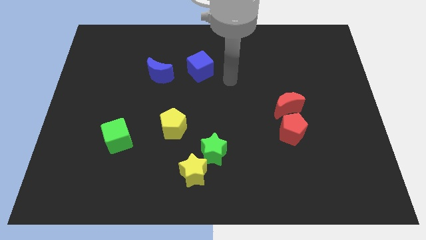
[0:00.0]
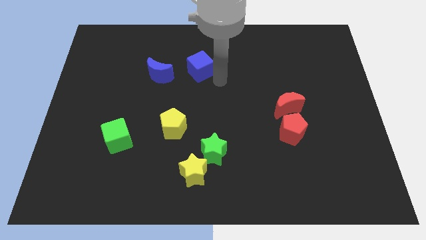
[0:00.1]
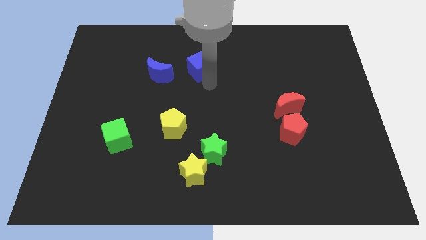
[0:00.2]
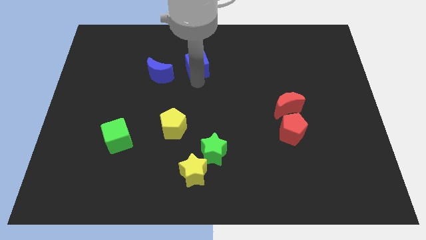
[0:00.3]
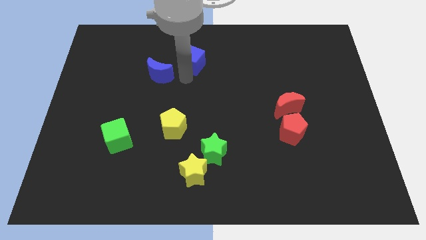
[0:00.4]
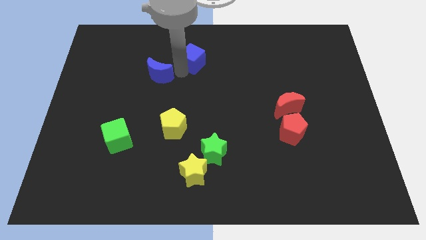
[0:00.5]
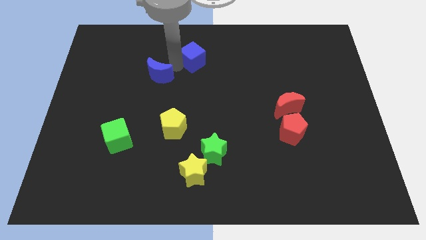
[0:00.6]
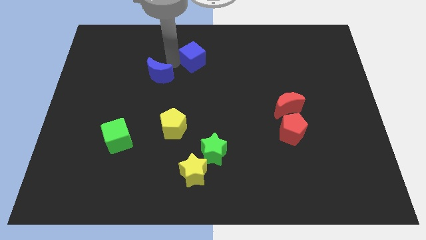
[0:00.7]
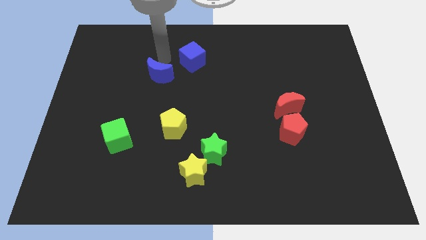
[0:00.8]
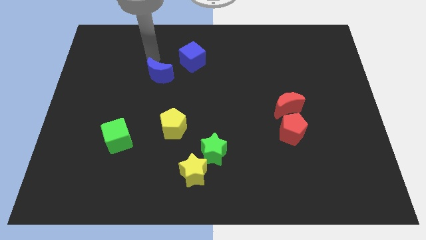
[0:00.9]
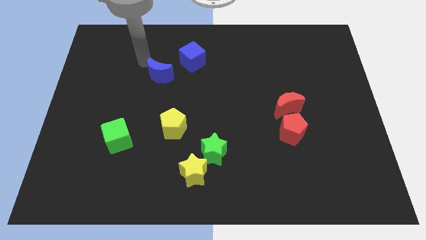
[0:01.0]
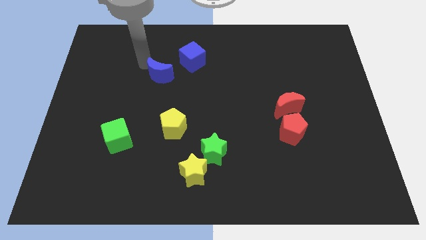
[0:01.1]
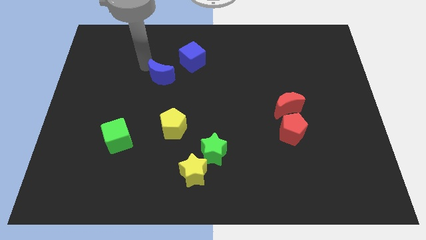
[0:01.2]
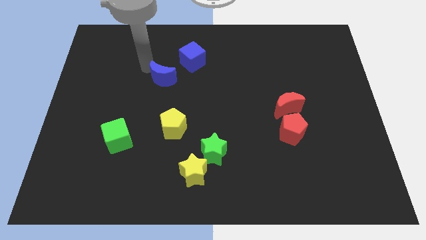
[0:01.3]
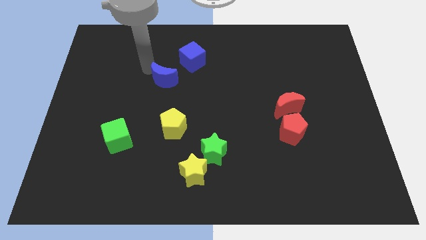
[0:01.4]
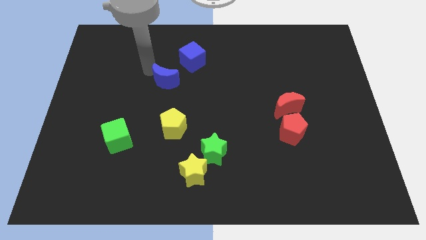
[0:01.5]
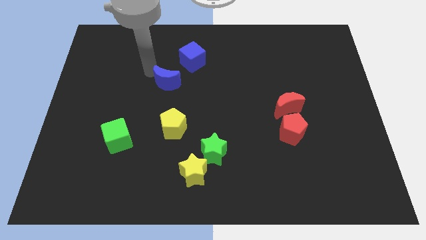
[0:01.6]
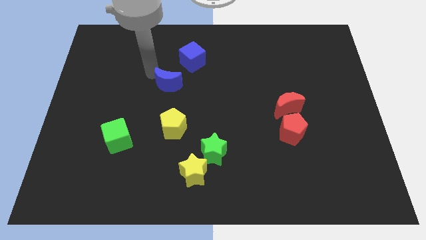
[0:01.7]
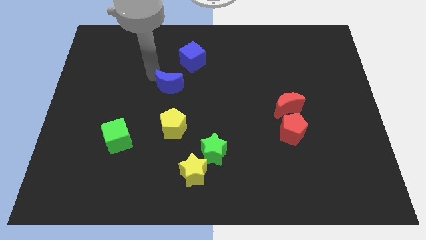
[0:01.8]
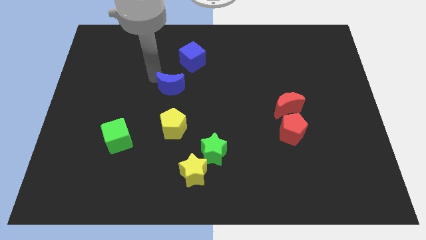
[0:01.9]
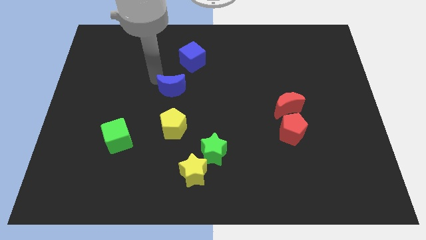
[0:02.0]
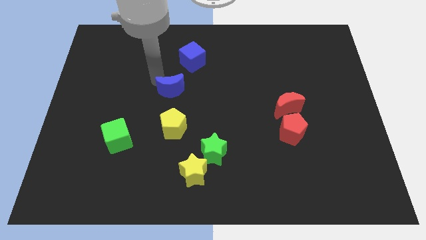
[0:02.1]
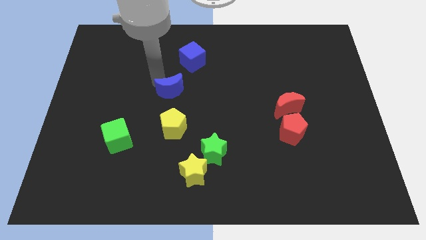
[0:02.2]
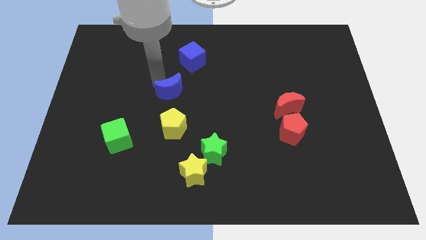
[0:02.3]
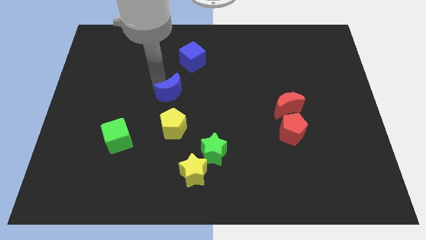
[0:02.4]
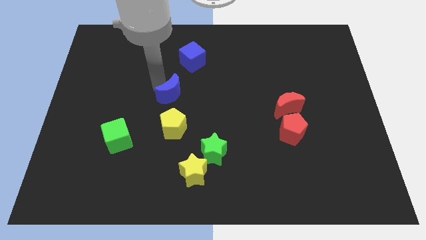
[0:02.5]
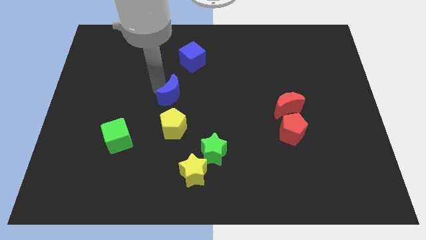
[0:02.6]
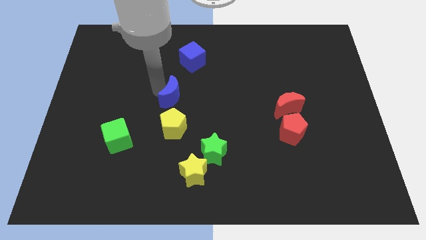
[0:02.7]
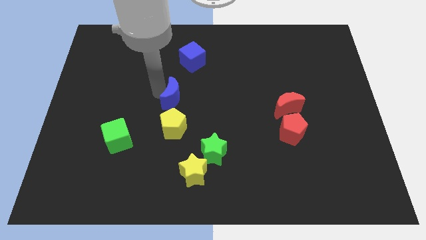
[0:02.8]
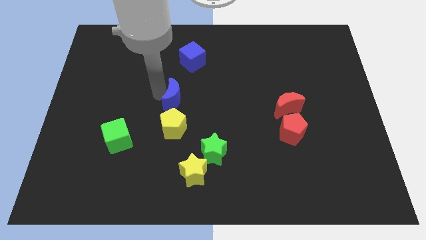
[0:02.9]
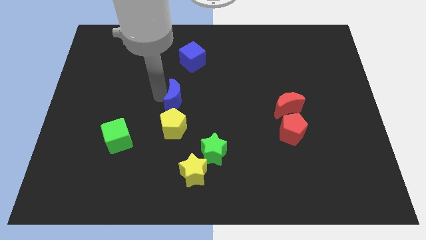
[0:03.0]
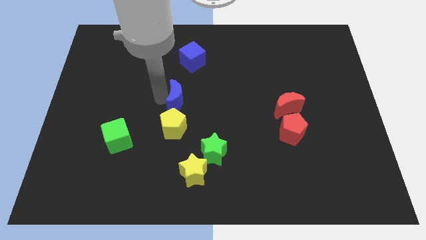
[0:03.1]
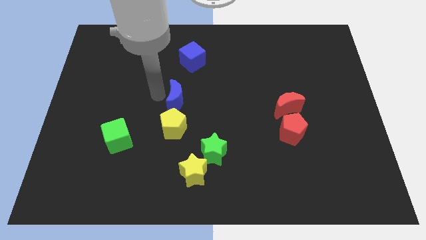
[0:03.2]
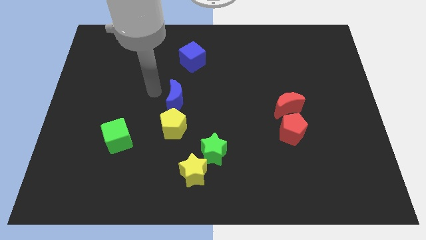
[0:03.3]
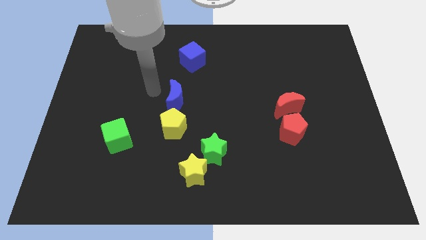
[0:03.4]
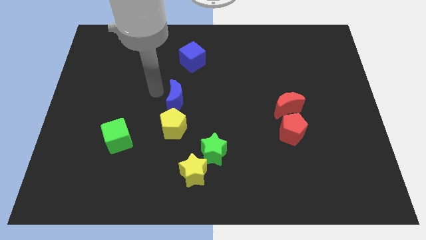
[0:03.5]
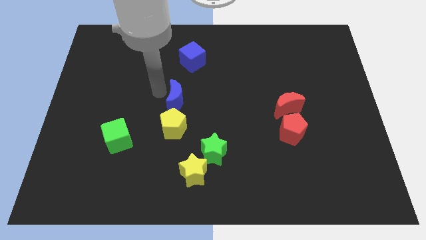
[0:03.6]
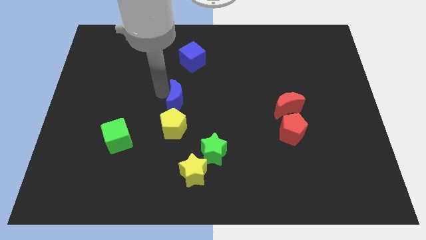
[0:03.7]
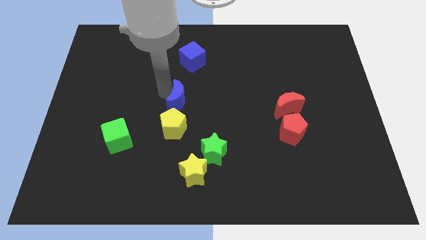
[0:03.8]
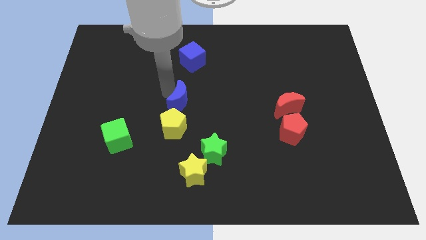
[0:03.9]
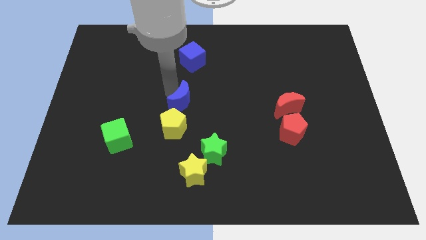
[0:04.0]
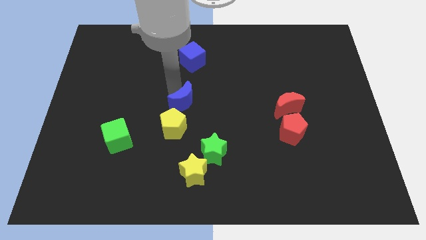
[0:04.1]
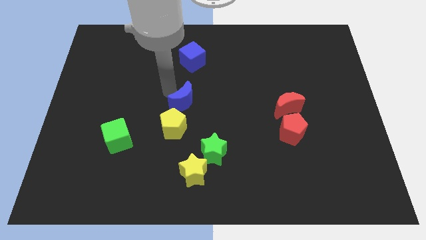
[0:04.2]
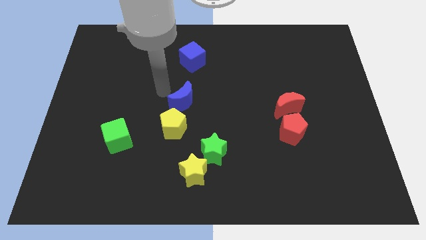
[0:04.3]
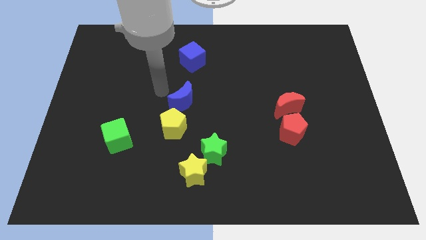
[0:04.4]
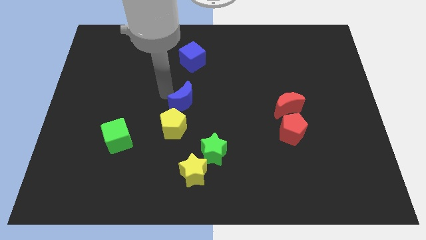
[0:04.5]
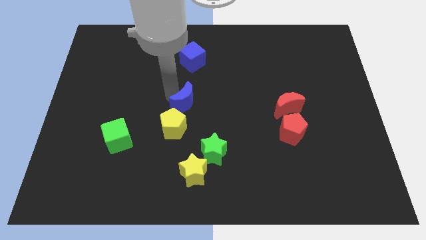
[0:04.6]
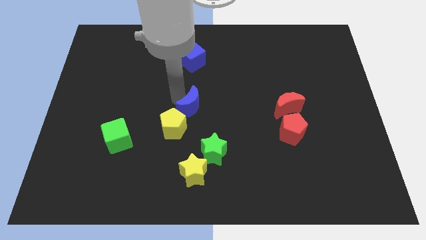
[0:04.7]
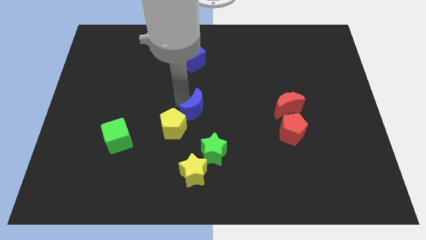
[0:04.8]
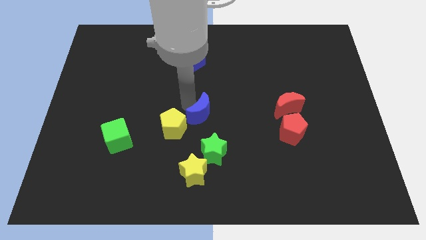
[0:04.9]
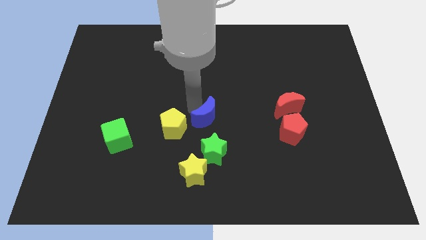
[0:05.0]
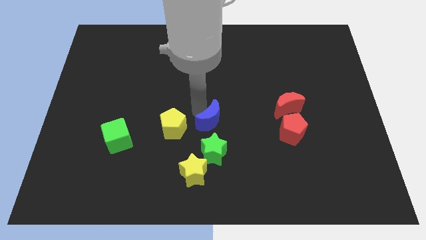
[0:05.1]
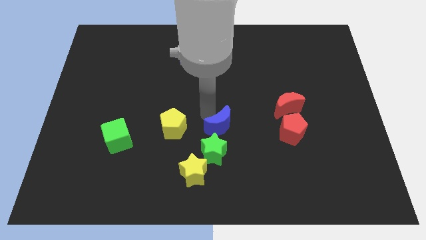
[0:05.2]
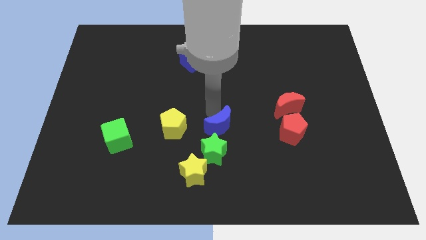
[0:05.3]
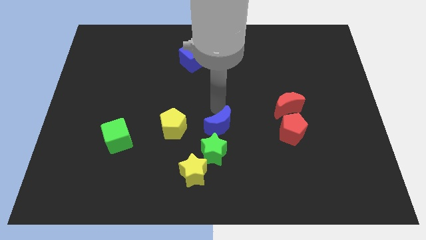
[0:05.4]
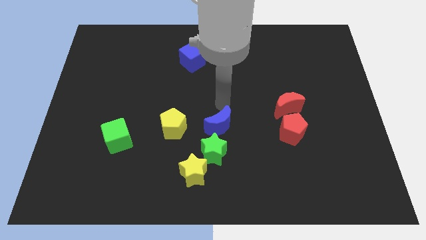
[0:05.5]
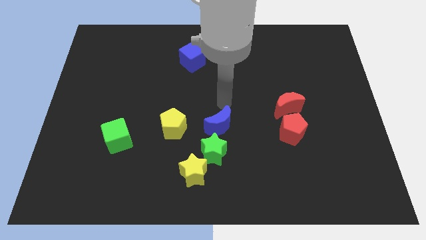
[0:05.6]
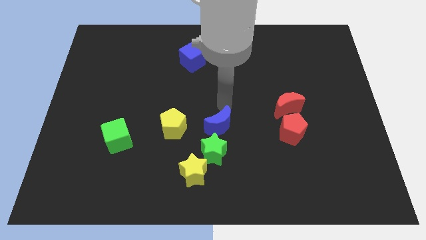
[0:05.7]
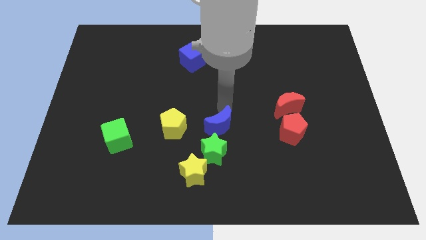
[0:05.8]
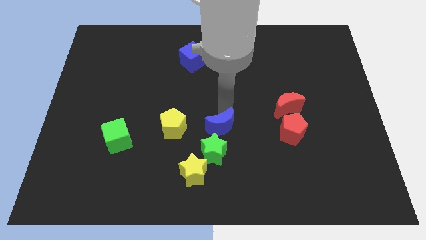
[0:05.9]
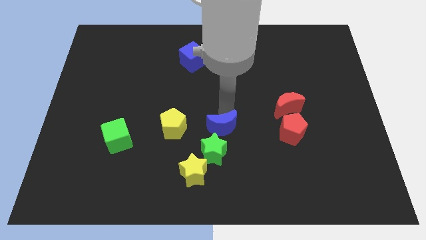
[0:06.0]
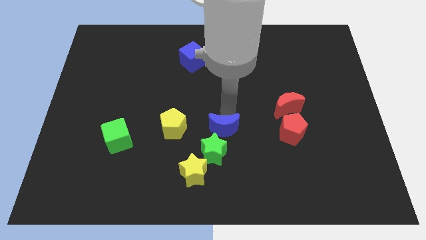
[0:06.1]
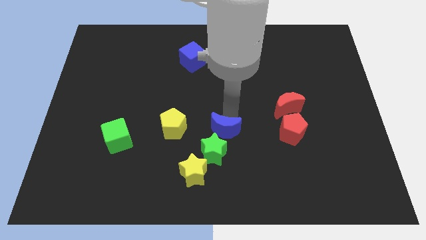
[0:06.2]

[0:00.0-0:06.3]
put the blue moon towards the green star
